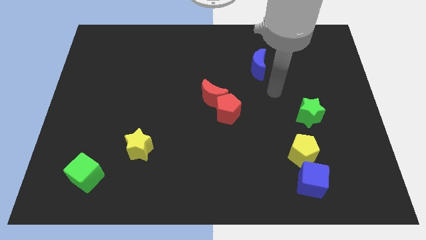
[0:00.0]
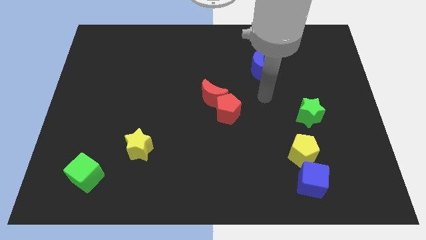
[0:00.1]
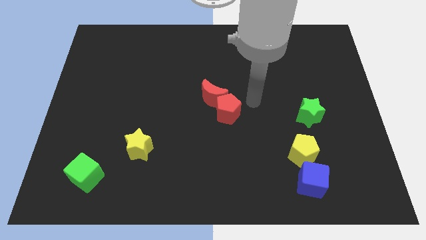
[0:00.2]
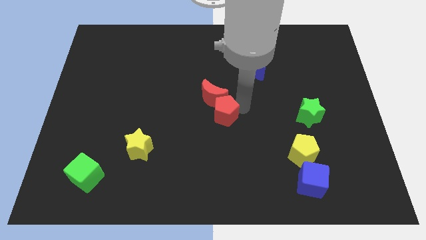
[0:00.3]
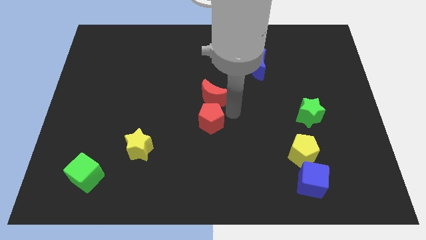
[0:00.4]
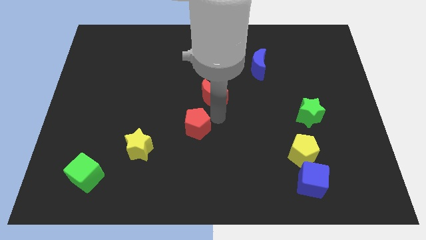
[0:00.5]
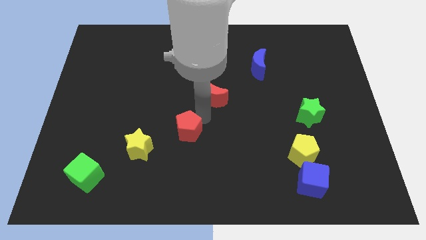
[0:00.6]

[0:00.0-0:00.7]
pull the red moon apart from the red pentagon

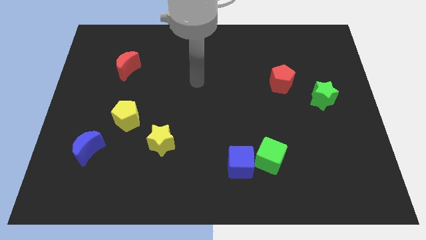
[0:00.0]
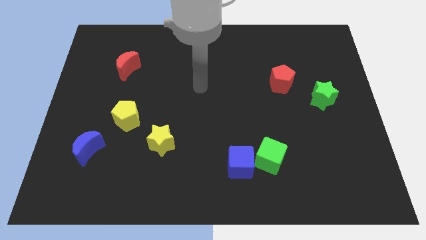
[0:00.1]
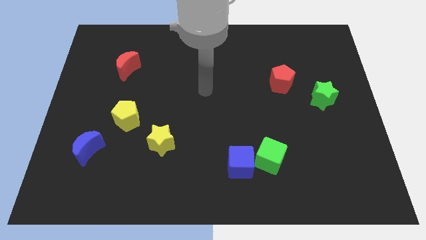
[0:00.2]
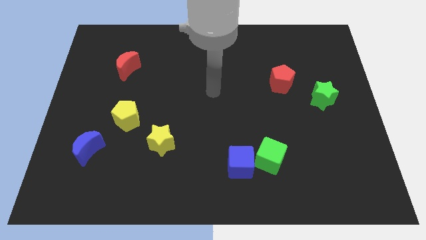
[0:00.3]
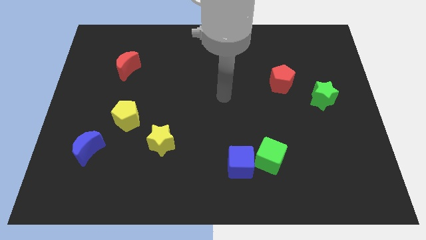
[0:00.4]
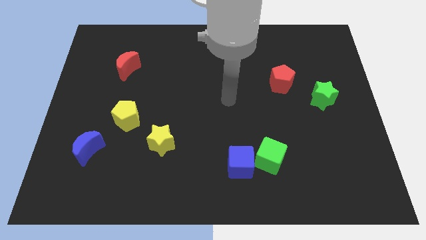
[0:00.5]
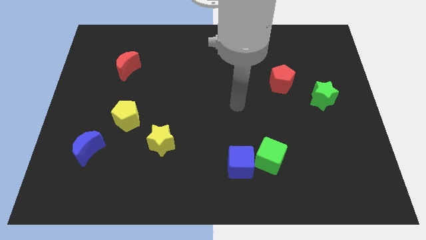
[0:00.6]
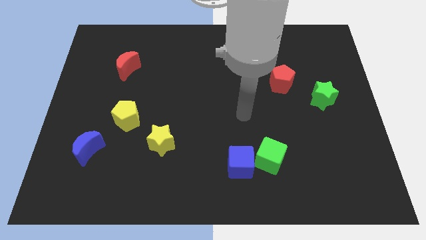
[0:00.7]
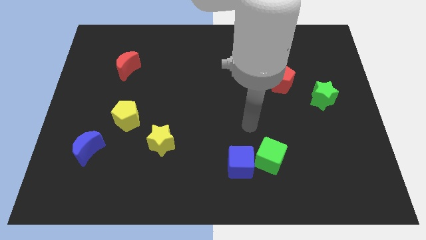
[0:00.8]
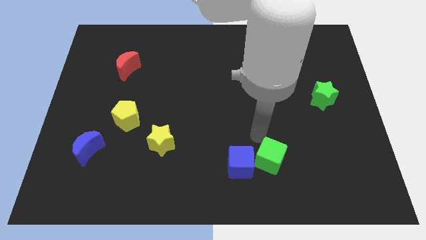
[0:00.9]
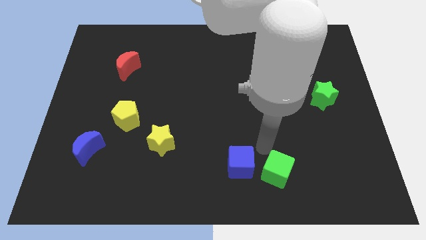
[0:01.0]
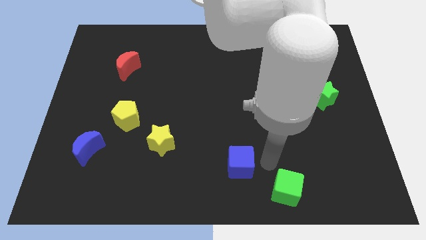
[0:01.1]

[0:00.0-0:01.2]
pull the blue cube apart from the green cube

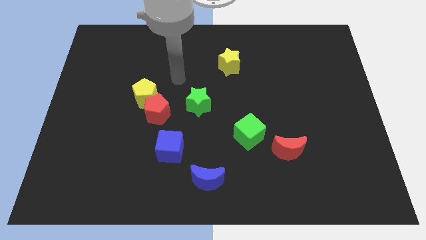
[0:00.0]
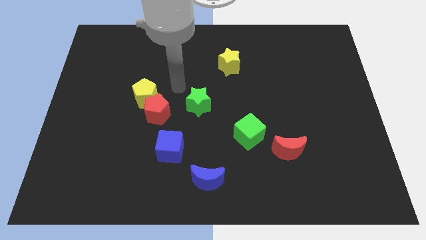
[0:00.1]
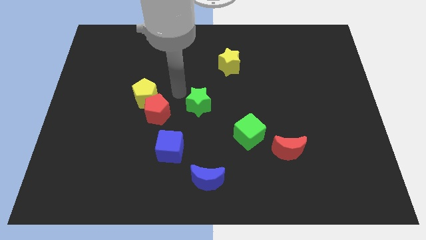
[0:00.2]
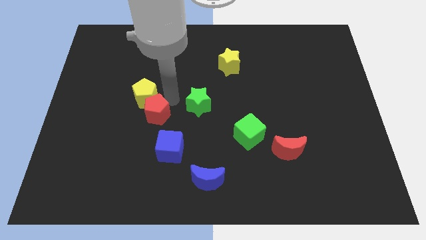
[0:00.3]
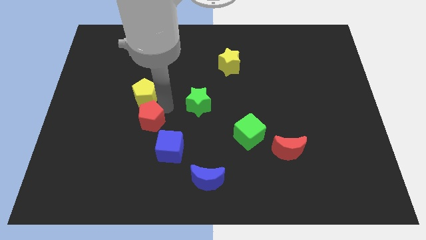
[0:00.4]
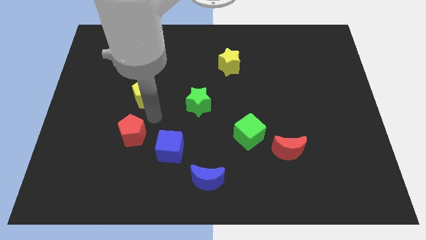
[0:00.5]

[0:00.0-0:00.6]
separate the yellow pentagon from the red pentagon

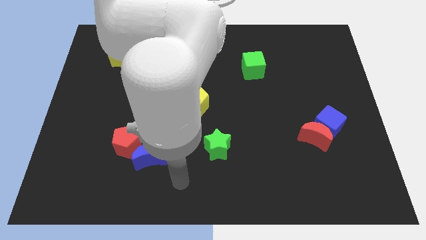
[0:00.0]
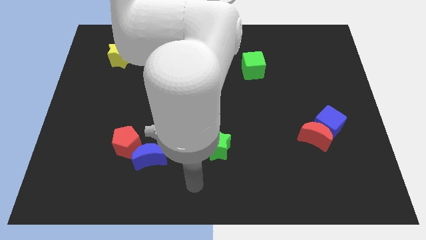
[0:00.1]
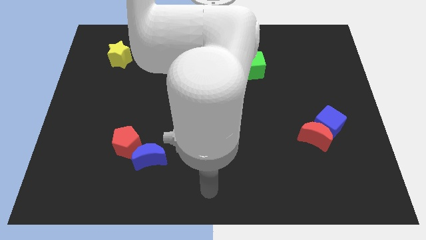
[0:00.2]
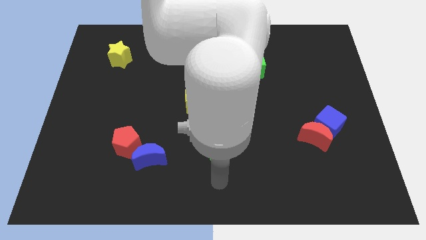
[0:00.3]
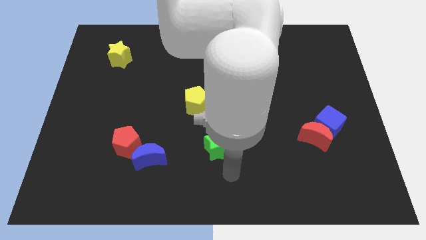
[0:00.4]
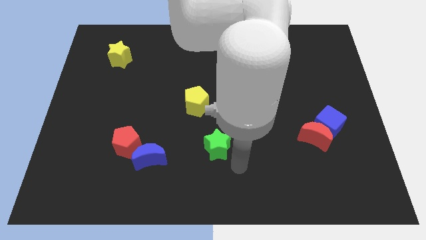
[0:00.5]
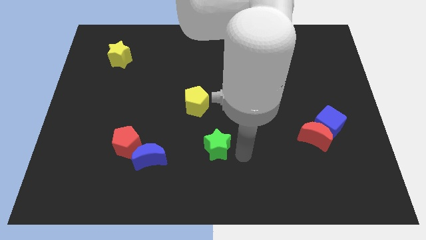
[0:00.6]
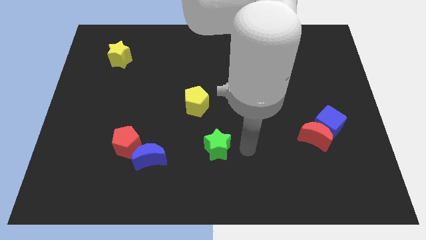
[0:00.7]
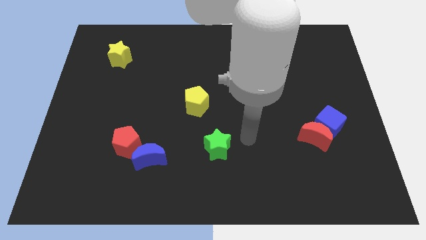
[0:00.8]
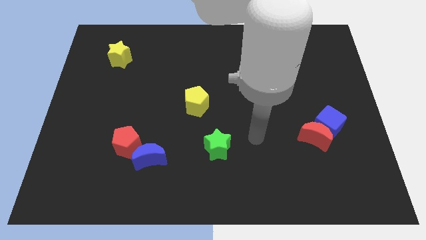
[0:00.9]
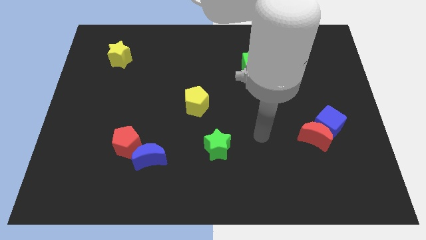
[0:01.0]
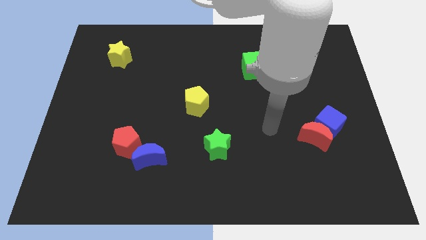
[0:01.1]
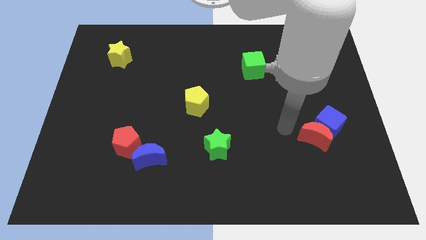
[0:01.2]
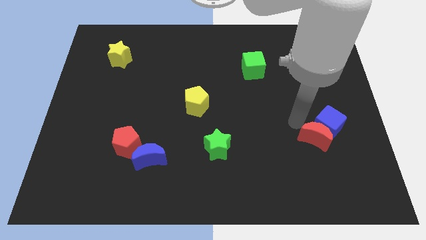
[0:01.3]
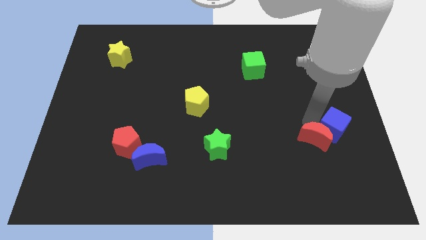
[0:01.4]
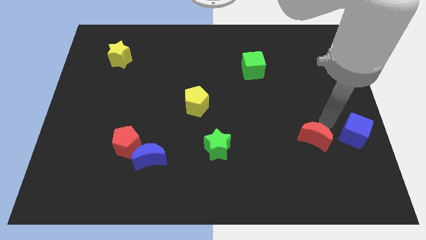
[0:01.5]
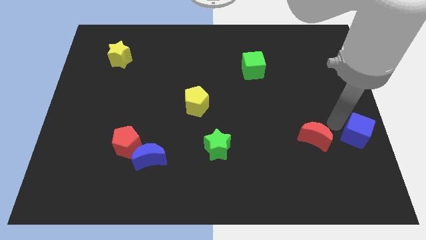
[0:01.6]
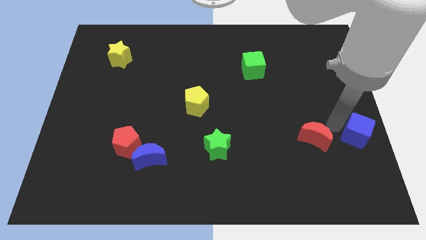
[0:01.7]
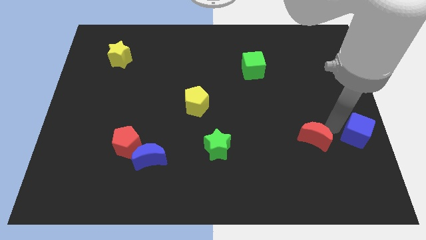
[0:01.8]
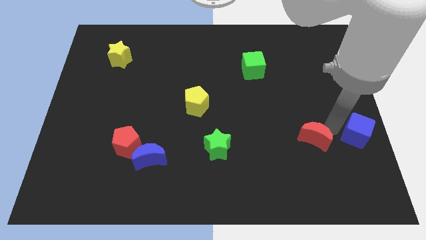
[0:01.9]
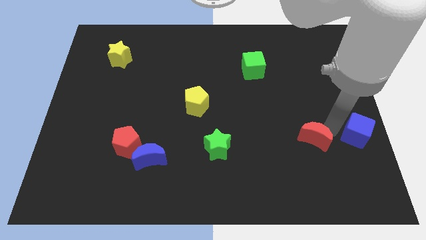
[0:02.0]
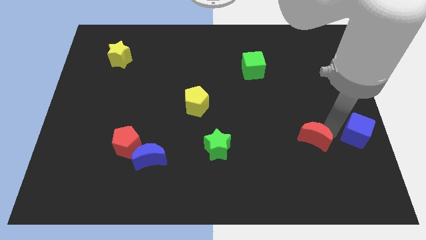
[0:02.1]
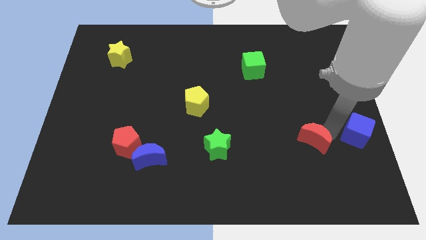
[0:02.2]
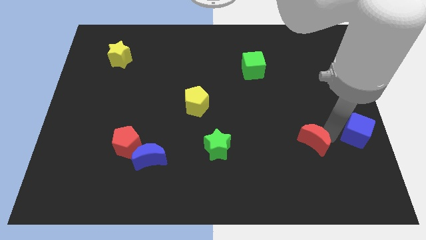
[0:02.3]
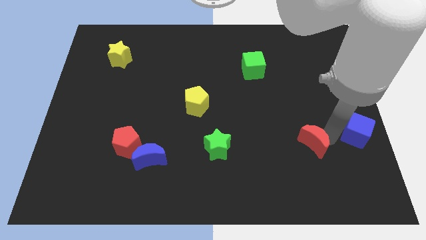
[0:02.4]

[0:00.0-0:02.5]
pull the red moon apart from the blue cube

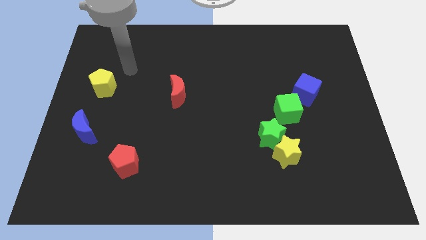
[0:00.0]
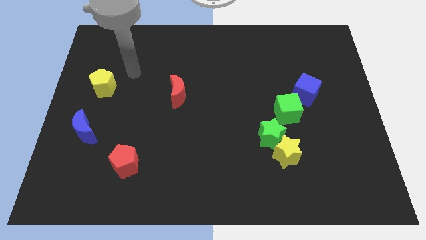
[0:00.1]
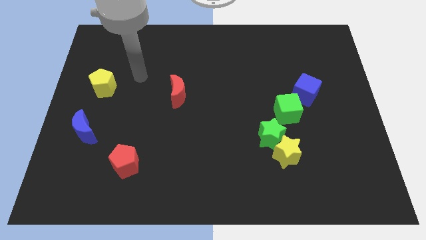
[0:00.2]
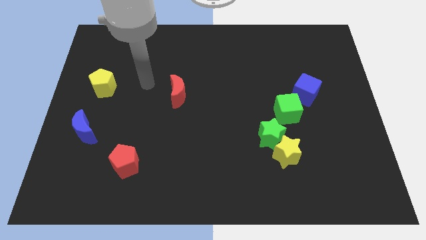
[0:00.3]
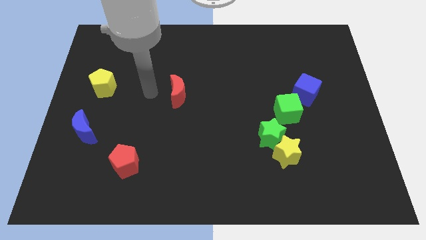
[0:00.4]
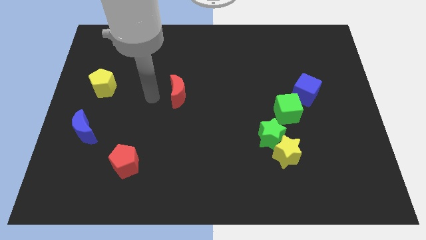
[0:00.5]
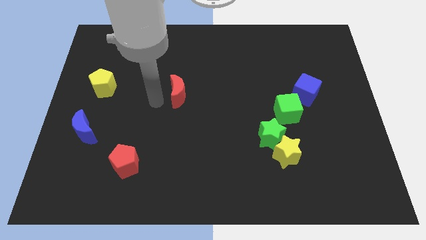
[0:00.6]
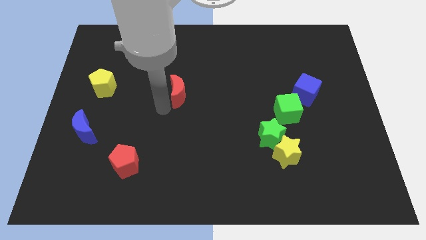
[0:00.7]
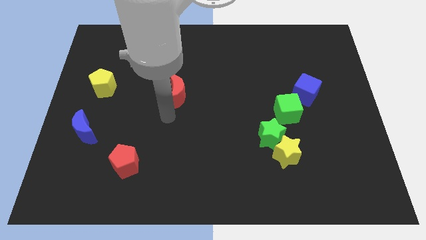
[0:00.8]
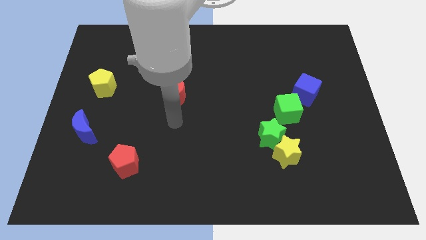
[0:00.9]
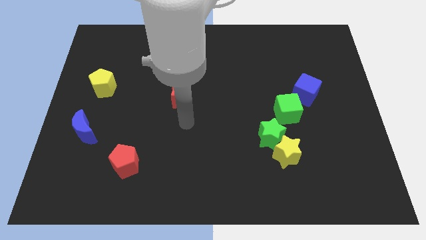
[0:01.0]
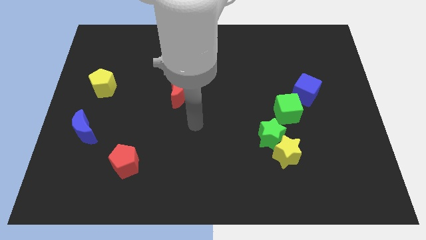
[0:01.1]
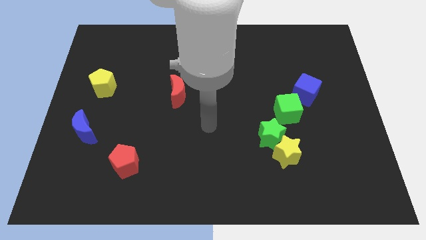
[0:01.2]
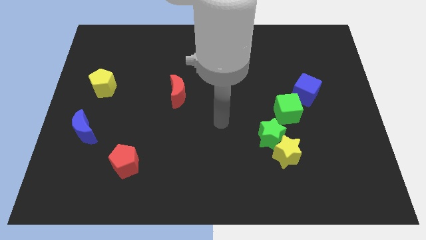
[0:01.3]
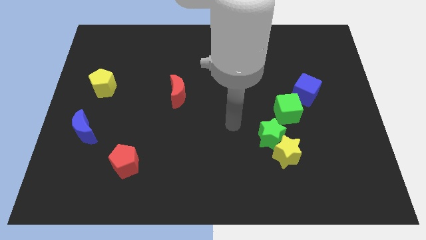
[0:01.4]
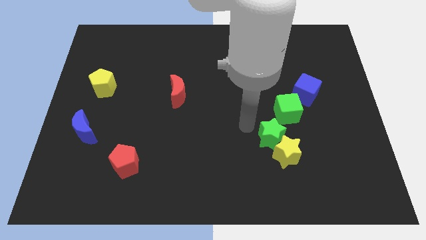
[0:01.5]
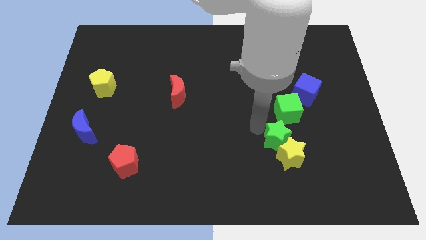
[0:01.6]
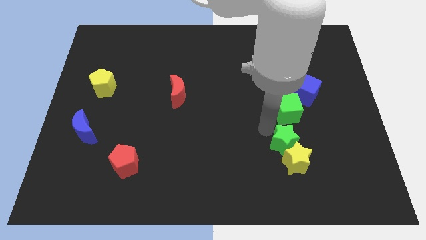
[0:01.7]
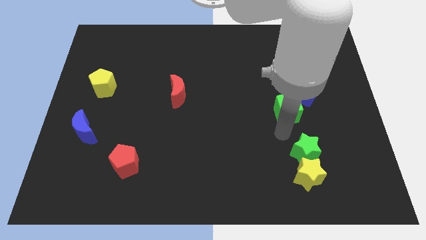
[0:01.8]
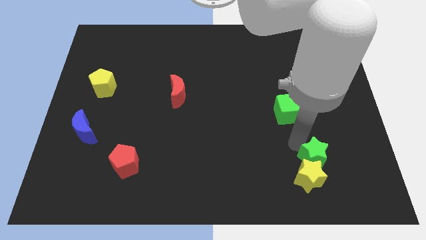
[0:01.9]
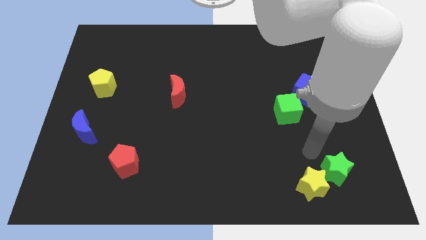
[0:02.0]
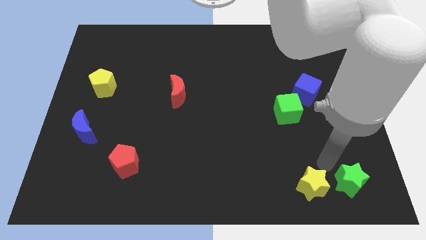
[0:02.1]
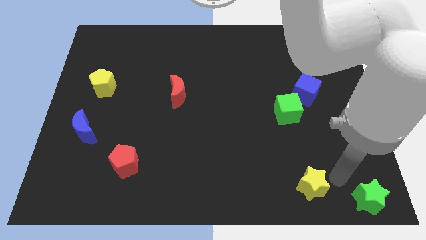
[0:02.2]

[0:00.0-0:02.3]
pull the yellow star apart from the green star

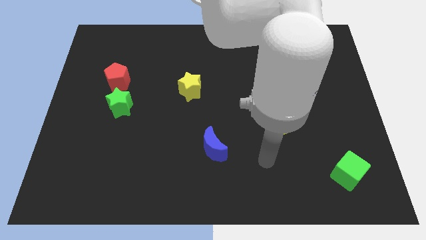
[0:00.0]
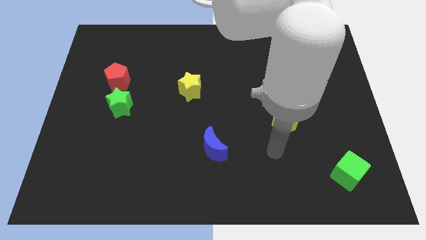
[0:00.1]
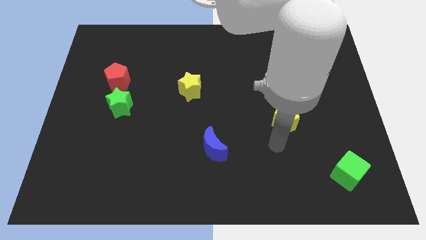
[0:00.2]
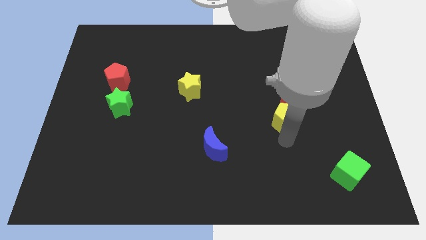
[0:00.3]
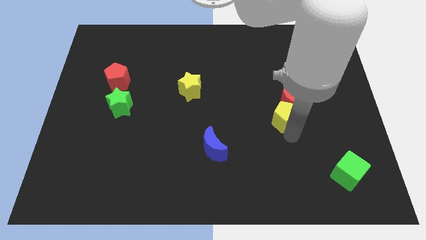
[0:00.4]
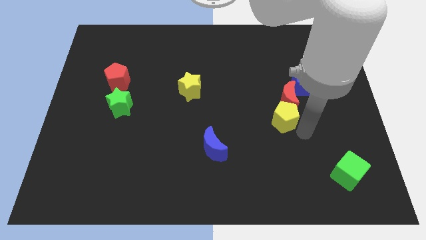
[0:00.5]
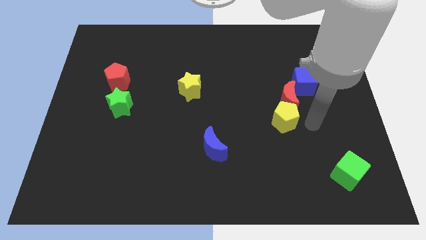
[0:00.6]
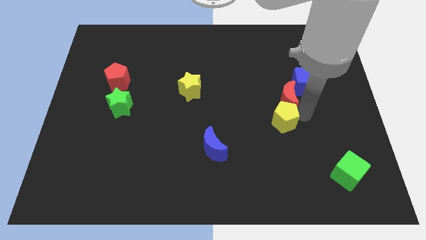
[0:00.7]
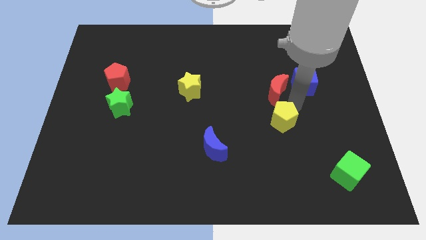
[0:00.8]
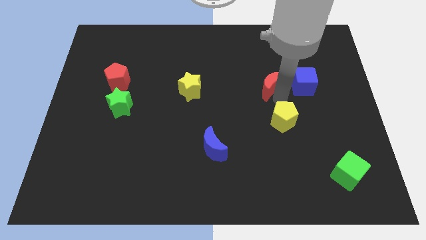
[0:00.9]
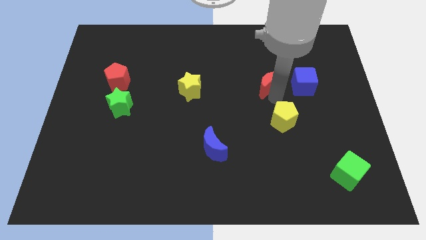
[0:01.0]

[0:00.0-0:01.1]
pull the yellow pentagon apart from the red moon

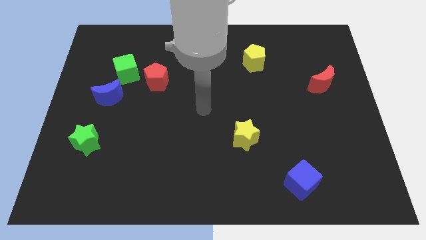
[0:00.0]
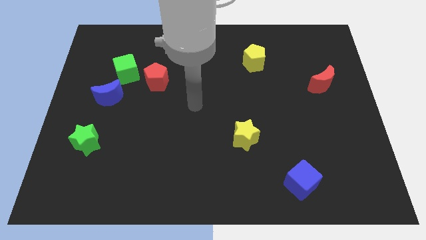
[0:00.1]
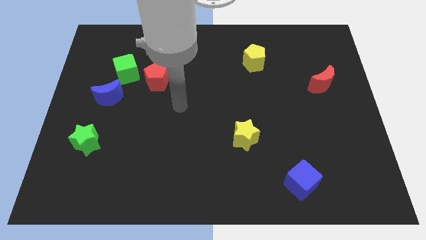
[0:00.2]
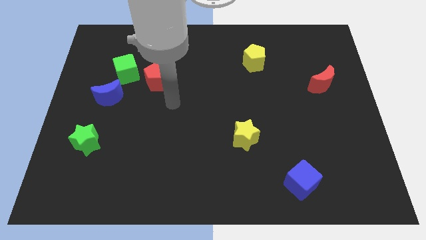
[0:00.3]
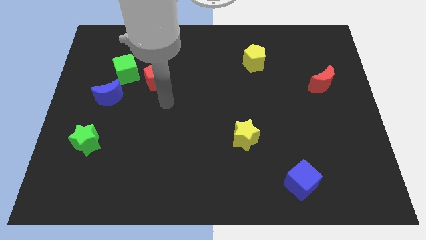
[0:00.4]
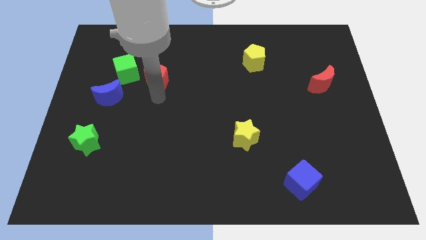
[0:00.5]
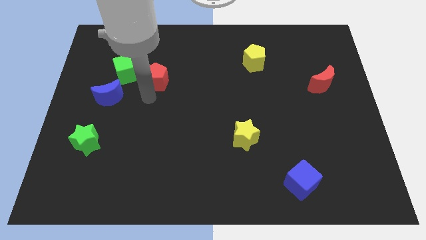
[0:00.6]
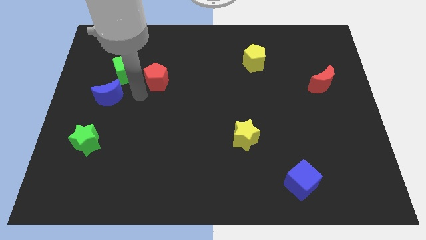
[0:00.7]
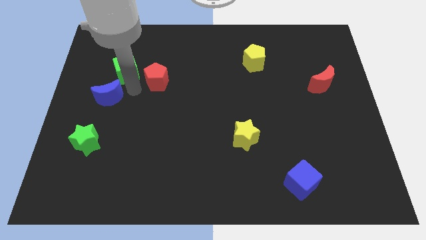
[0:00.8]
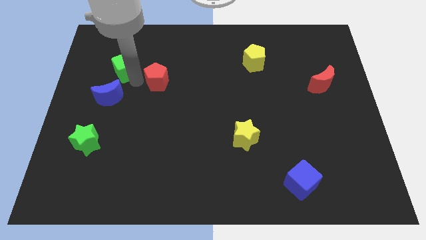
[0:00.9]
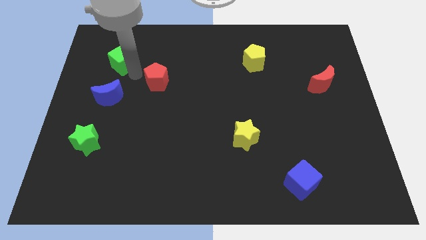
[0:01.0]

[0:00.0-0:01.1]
separate the red pentagon from the green cube
